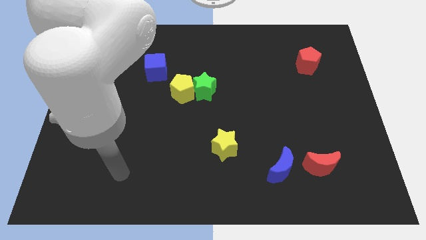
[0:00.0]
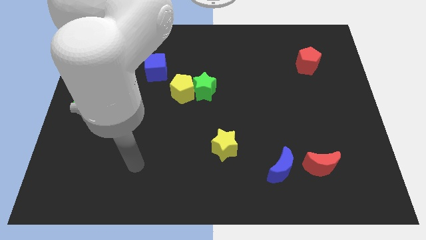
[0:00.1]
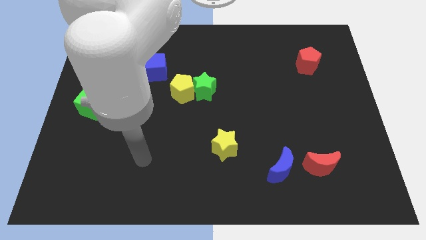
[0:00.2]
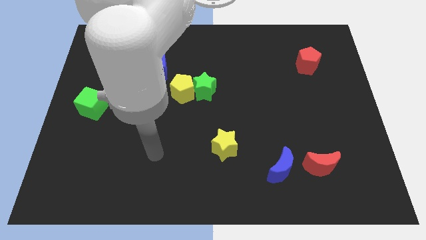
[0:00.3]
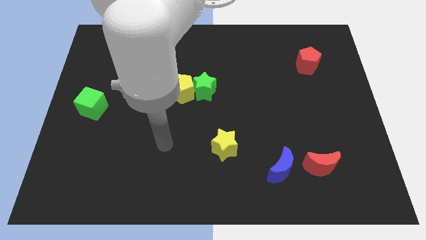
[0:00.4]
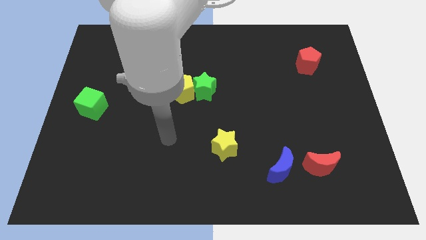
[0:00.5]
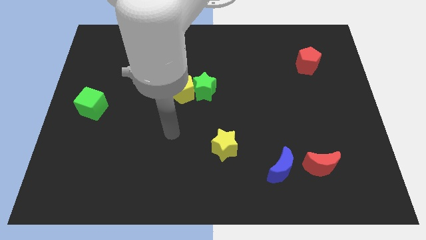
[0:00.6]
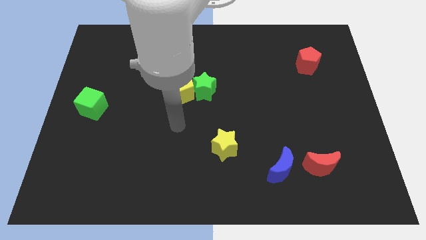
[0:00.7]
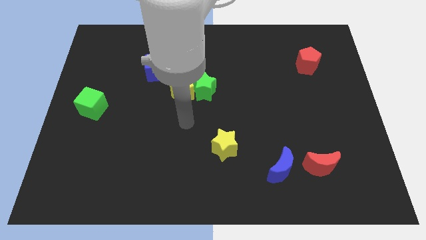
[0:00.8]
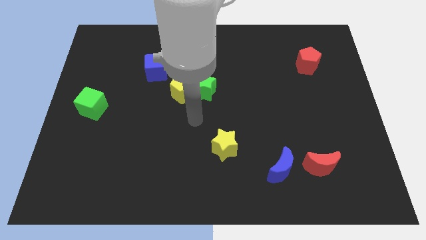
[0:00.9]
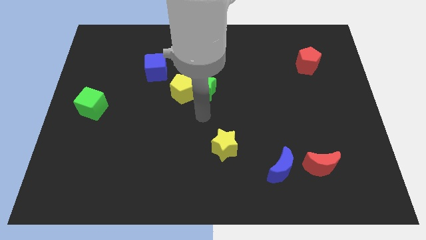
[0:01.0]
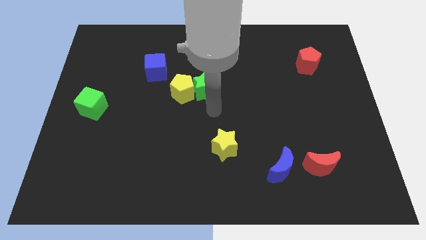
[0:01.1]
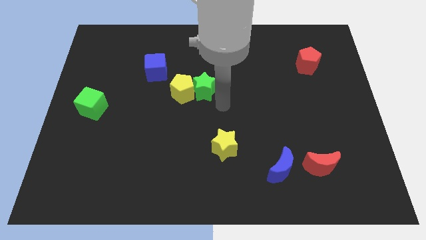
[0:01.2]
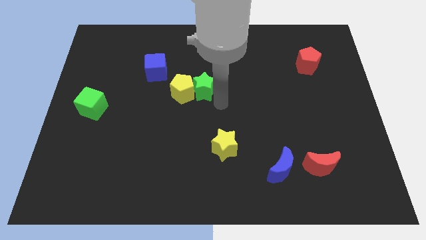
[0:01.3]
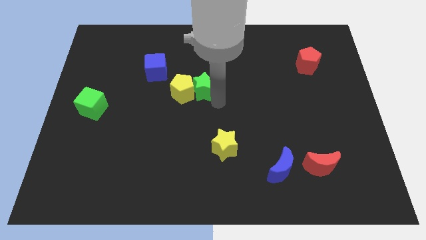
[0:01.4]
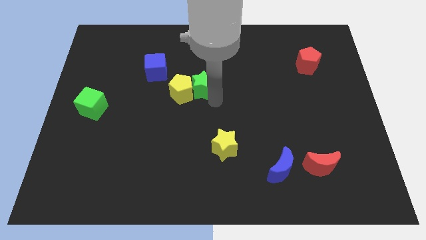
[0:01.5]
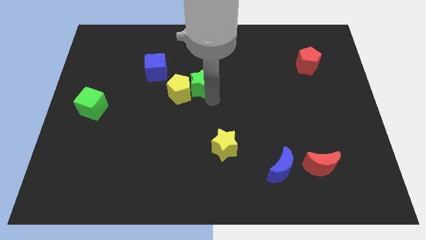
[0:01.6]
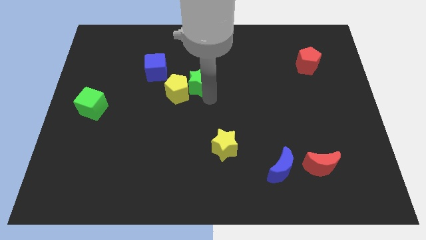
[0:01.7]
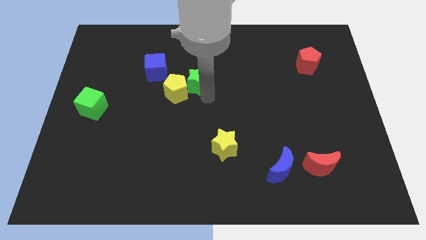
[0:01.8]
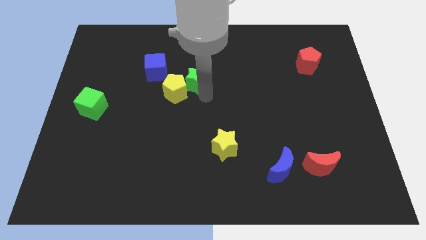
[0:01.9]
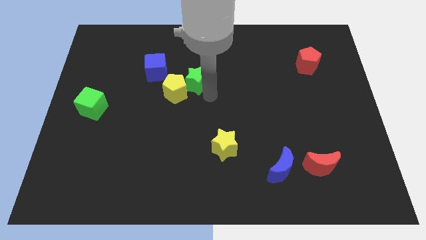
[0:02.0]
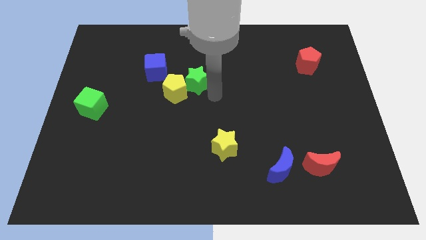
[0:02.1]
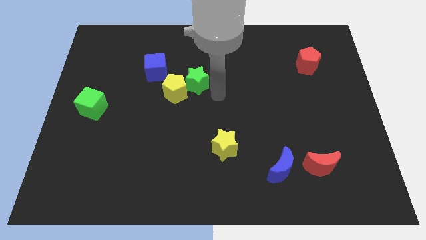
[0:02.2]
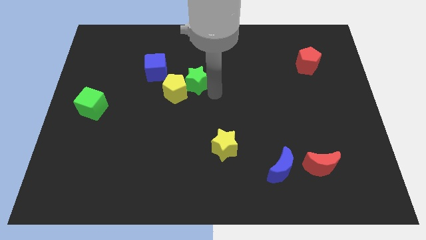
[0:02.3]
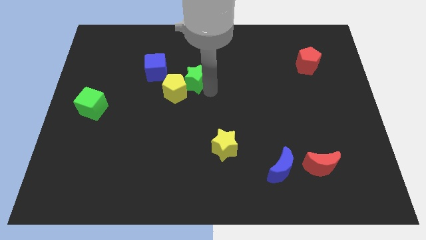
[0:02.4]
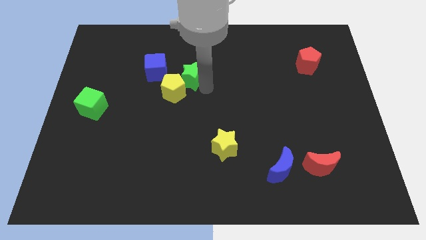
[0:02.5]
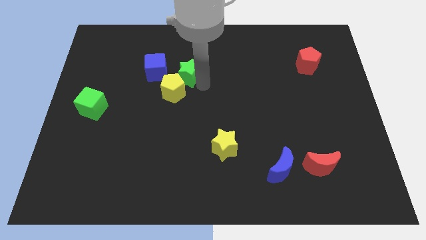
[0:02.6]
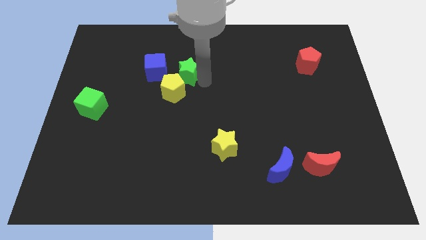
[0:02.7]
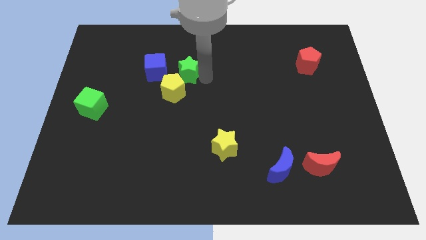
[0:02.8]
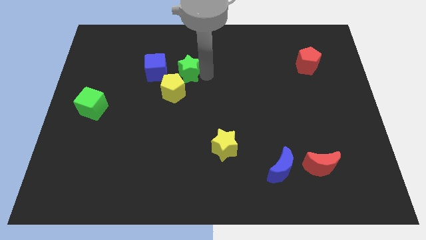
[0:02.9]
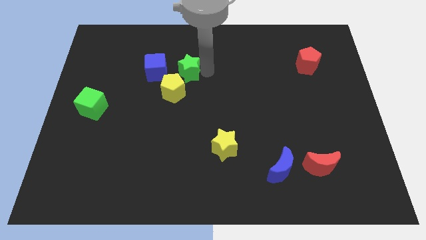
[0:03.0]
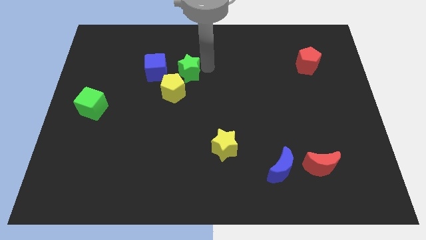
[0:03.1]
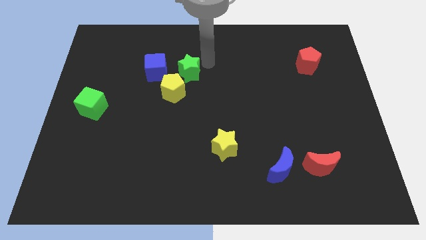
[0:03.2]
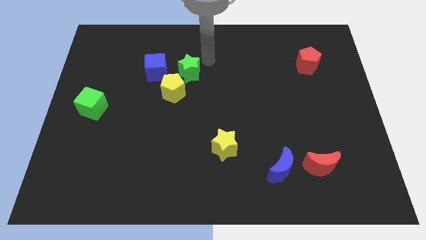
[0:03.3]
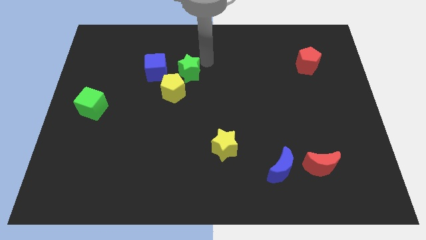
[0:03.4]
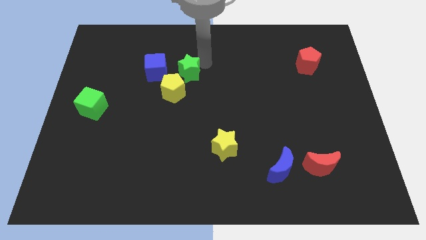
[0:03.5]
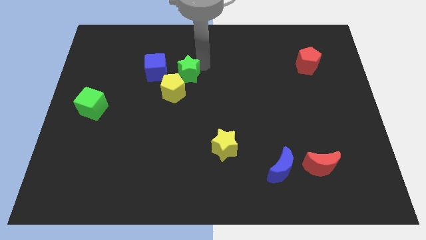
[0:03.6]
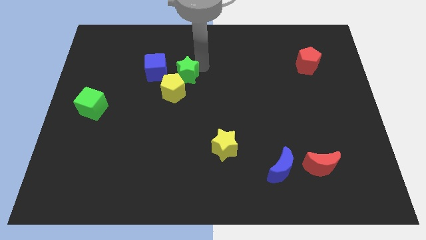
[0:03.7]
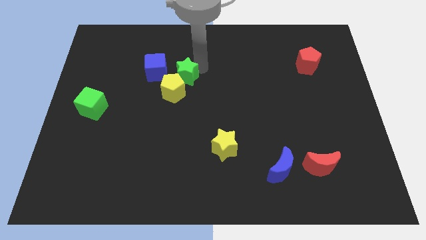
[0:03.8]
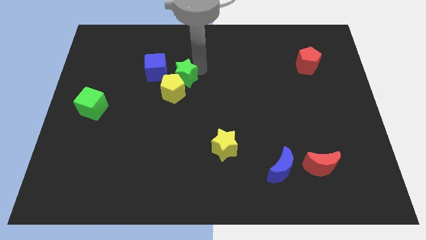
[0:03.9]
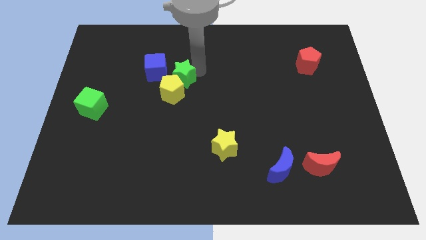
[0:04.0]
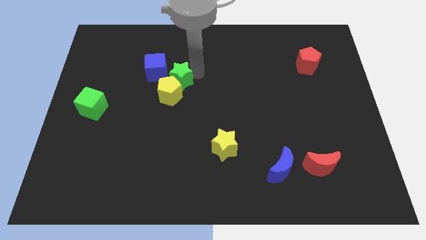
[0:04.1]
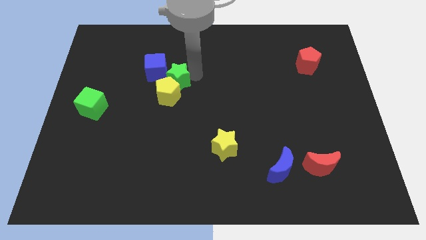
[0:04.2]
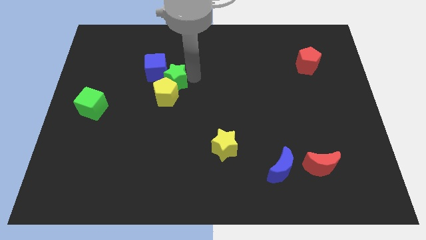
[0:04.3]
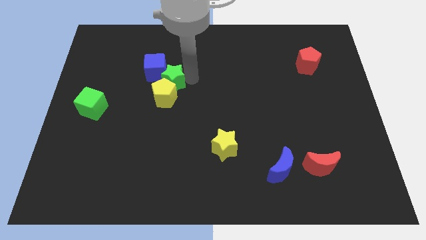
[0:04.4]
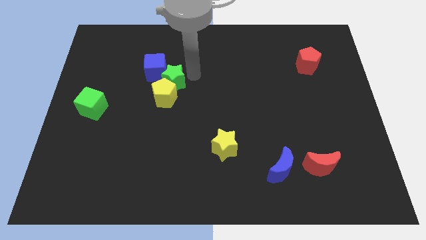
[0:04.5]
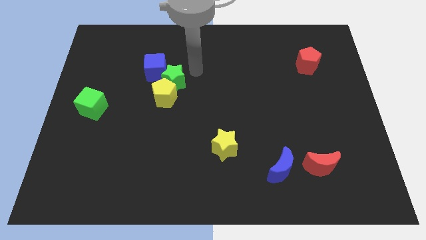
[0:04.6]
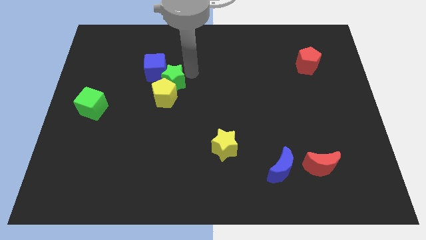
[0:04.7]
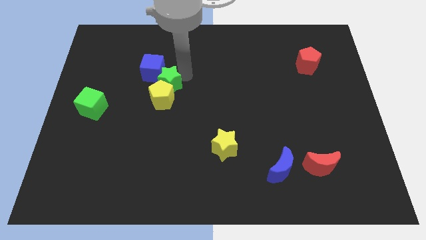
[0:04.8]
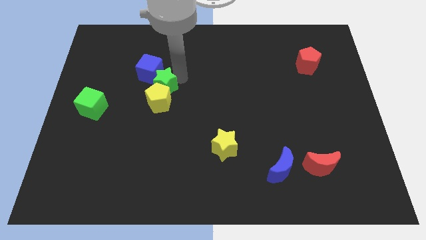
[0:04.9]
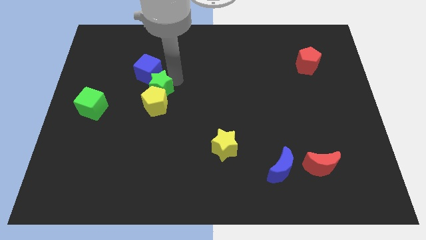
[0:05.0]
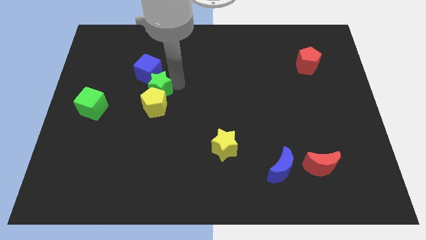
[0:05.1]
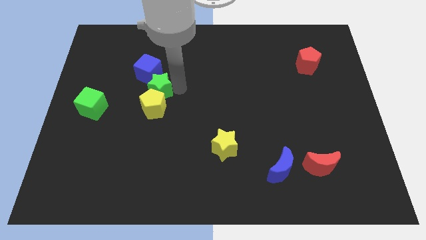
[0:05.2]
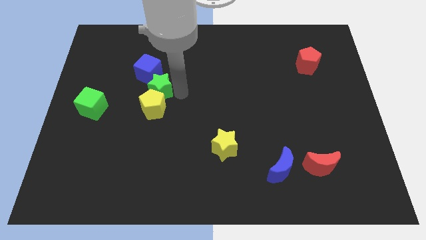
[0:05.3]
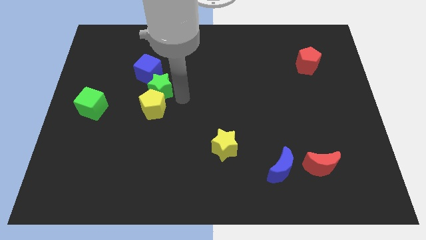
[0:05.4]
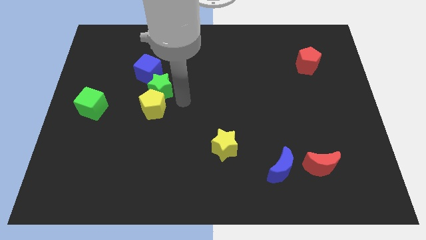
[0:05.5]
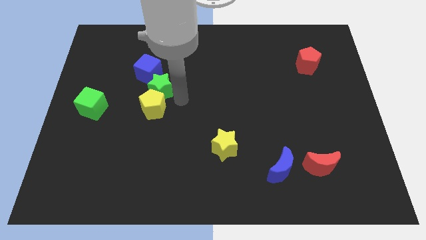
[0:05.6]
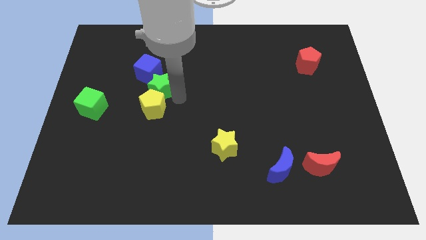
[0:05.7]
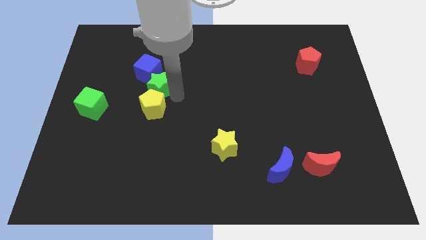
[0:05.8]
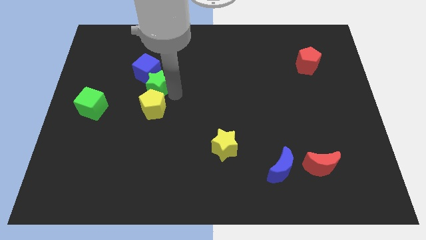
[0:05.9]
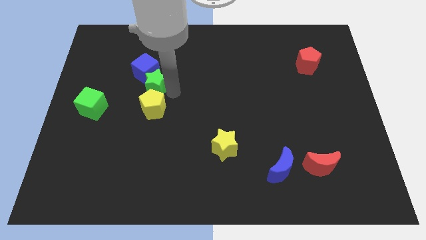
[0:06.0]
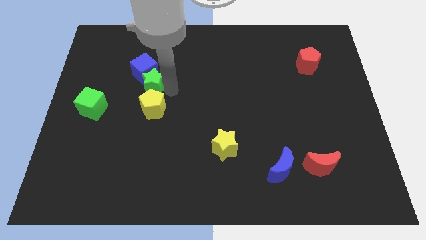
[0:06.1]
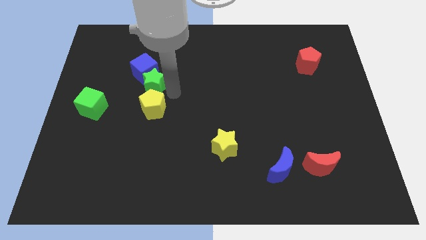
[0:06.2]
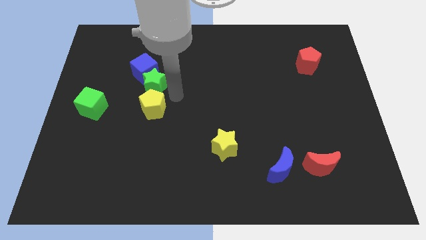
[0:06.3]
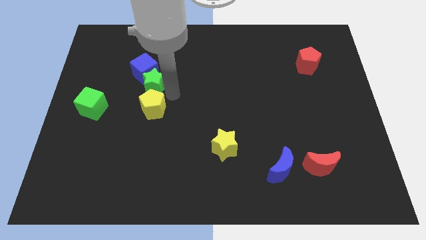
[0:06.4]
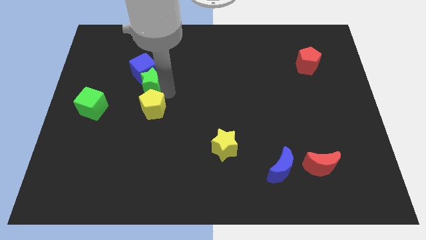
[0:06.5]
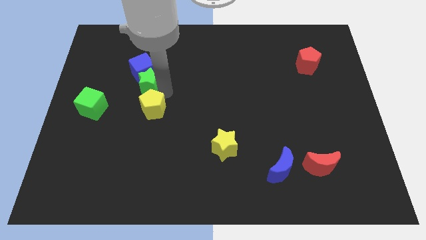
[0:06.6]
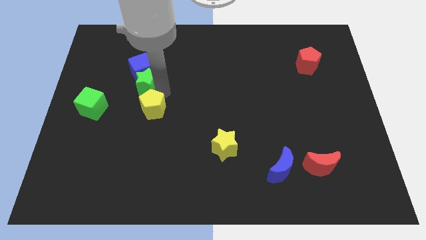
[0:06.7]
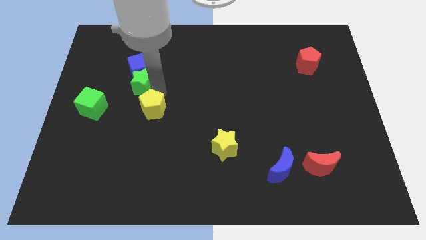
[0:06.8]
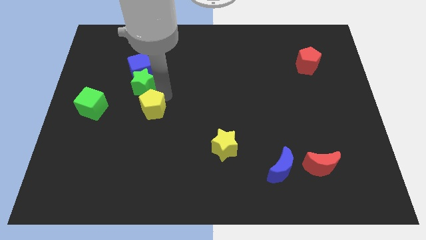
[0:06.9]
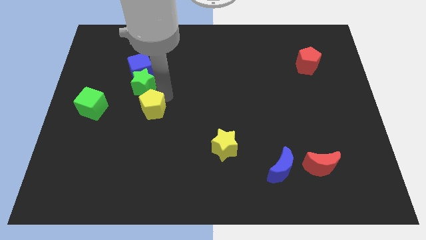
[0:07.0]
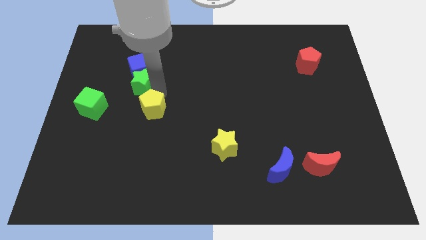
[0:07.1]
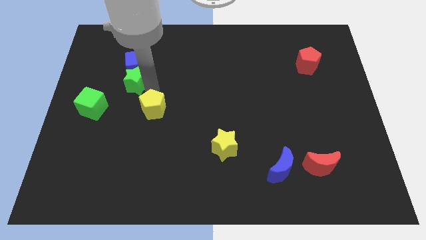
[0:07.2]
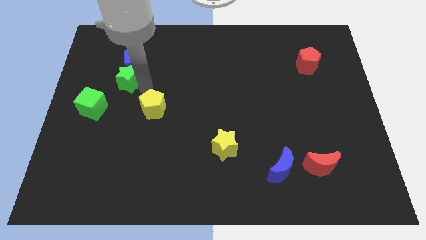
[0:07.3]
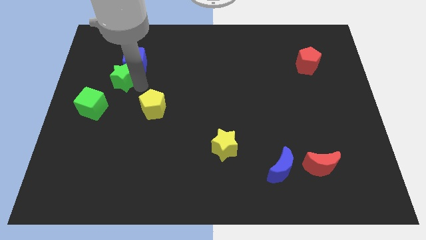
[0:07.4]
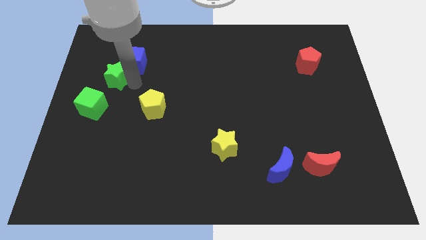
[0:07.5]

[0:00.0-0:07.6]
push the green star above the green cube
